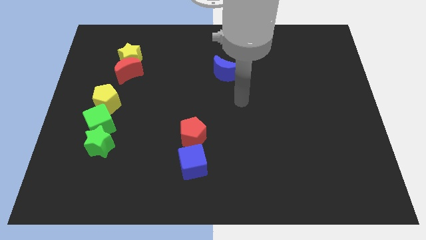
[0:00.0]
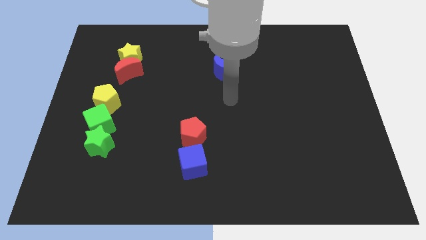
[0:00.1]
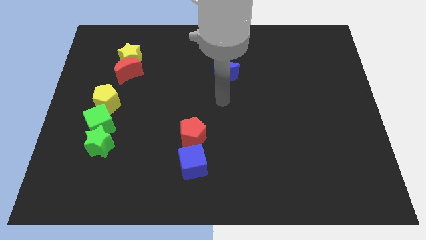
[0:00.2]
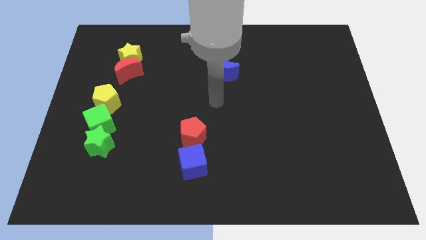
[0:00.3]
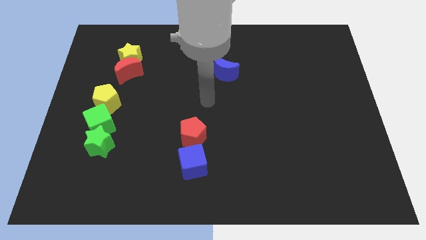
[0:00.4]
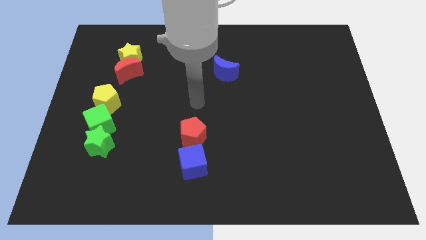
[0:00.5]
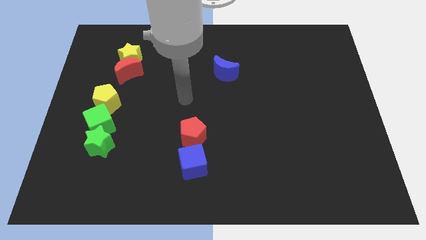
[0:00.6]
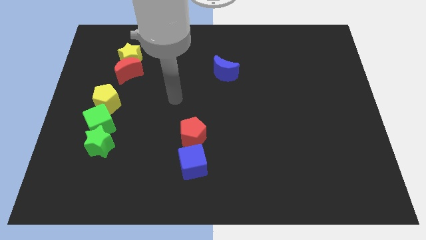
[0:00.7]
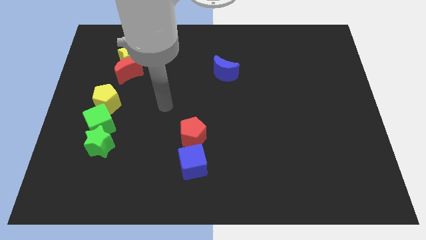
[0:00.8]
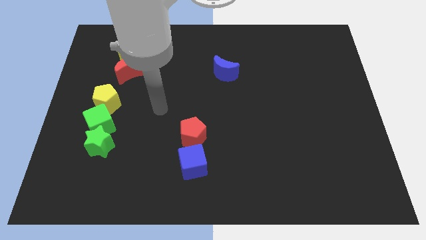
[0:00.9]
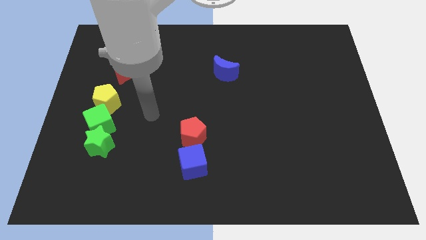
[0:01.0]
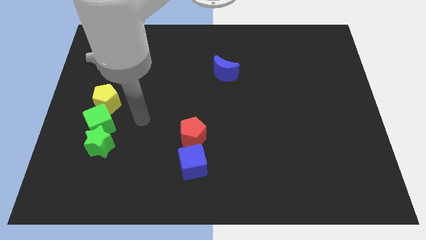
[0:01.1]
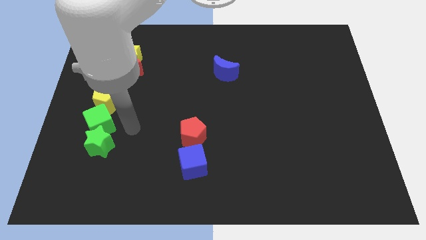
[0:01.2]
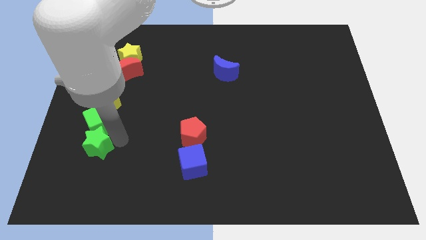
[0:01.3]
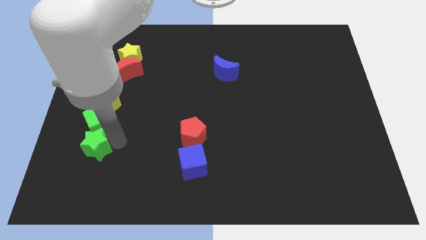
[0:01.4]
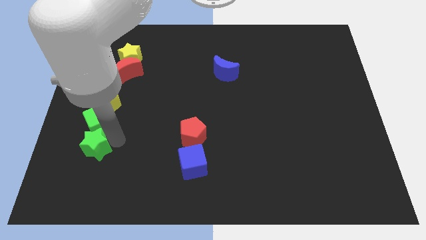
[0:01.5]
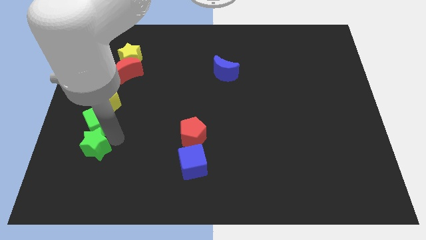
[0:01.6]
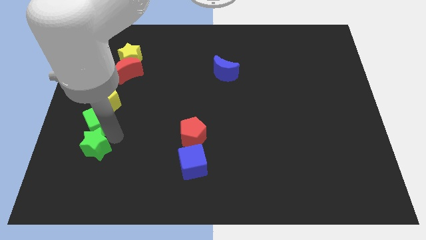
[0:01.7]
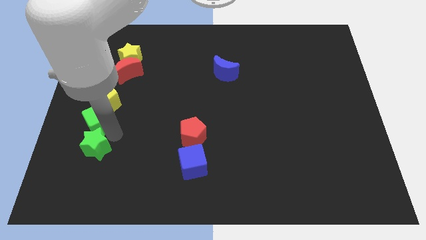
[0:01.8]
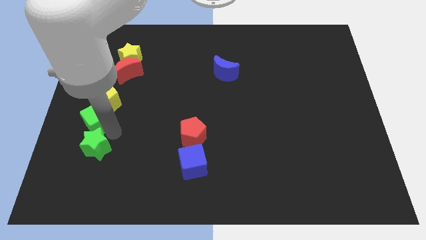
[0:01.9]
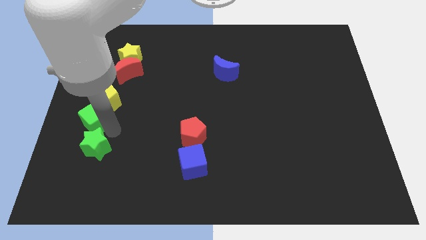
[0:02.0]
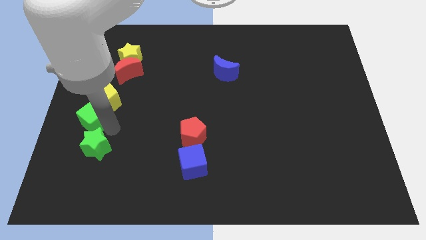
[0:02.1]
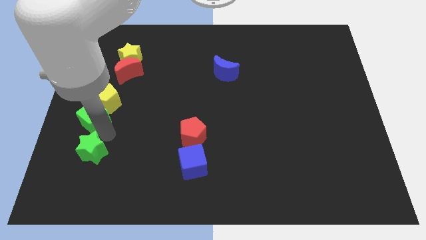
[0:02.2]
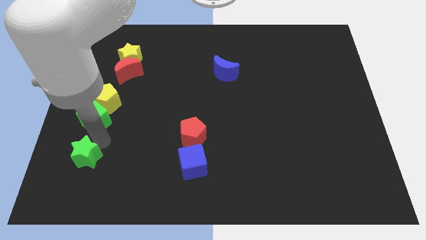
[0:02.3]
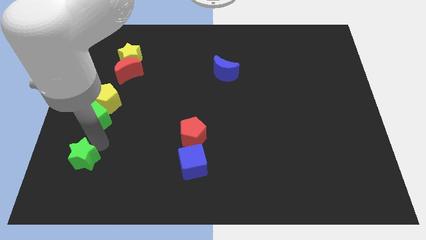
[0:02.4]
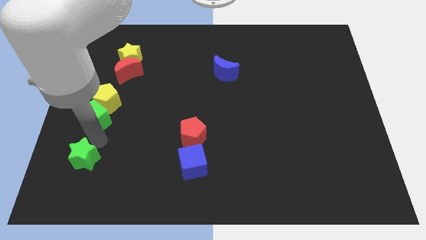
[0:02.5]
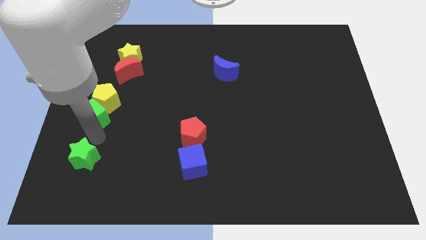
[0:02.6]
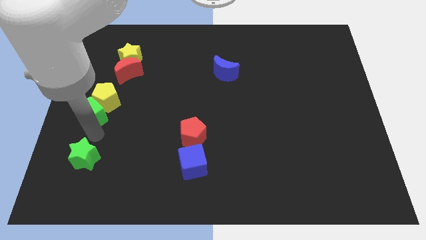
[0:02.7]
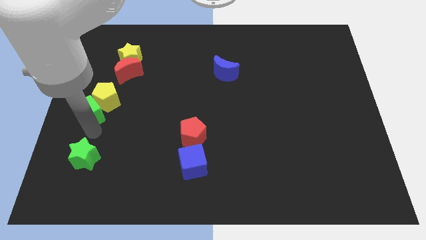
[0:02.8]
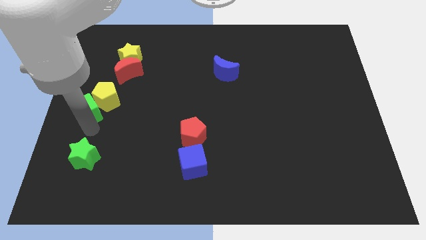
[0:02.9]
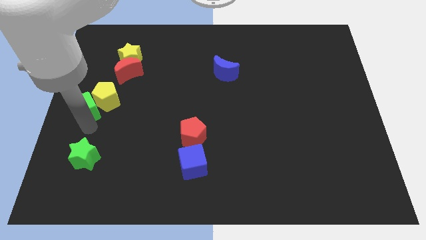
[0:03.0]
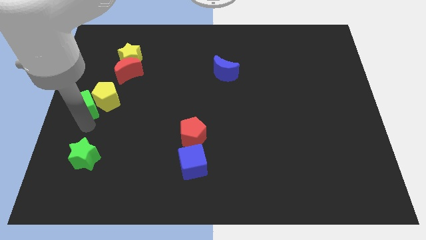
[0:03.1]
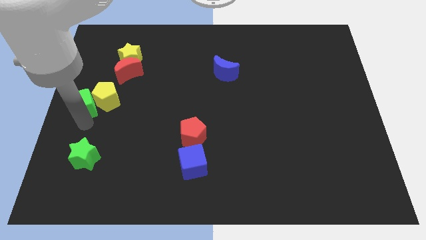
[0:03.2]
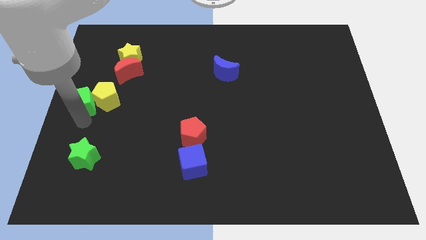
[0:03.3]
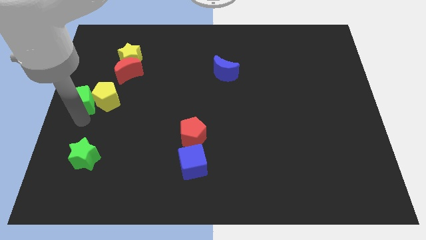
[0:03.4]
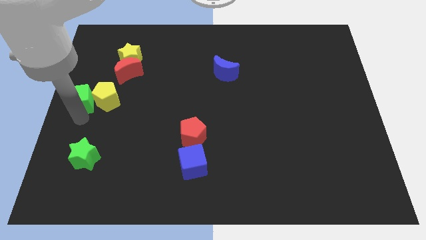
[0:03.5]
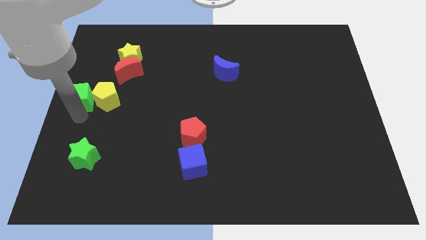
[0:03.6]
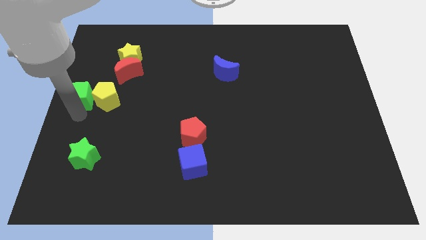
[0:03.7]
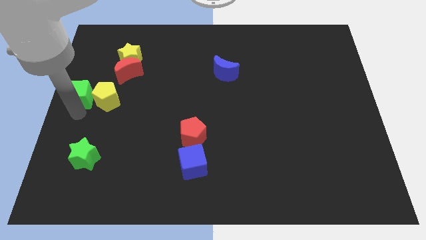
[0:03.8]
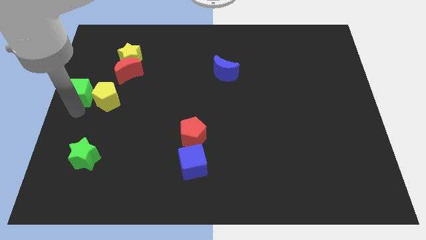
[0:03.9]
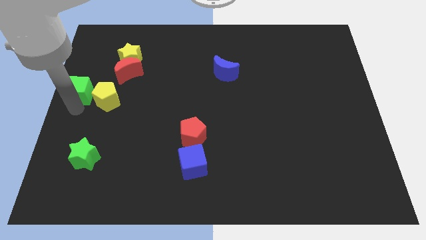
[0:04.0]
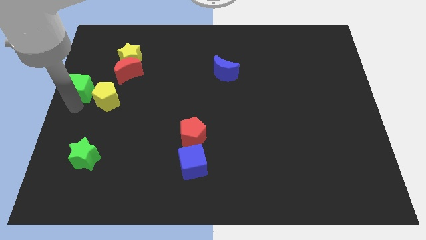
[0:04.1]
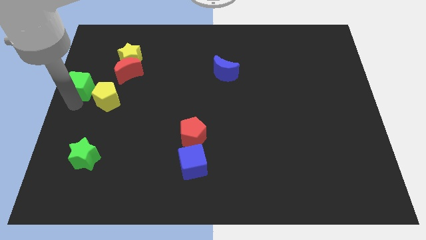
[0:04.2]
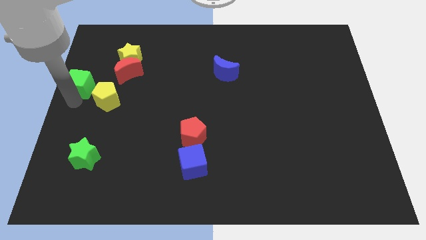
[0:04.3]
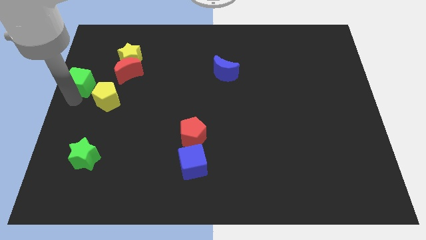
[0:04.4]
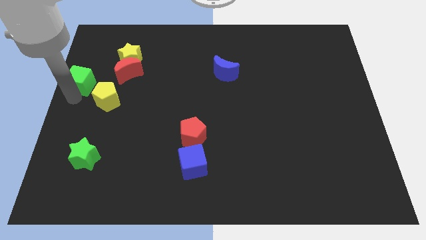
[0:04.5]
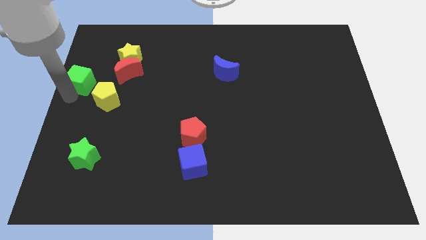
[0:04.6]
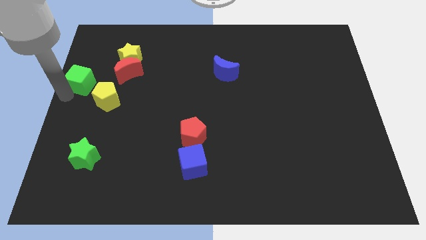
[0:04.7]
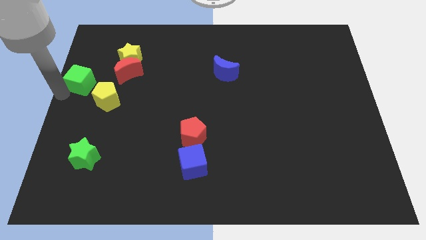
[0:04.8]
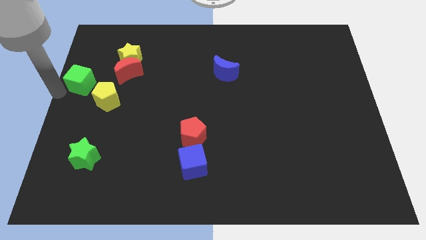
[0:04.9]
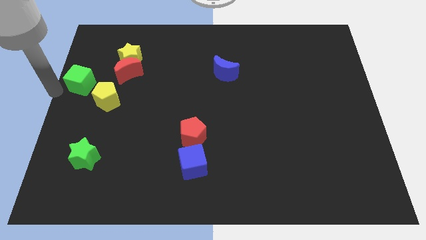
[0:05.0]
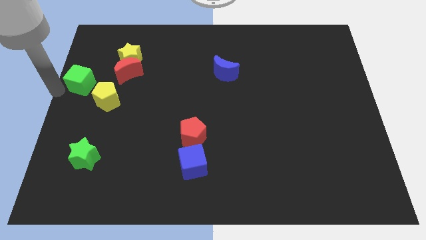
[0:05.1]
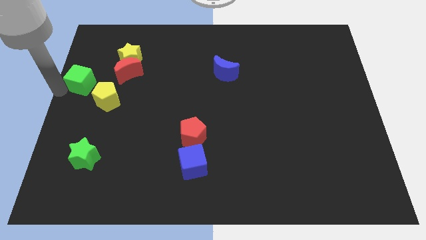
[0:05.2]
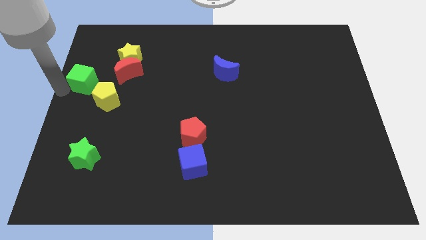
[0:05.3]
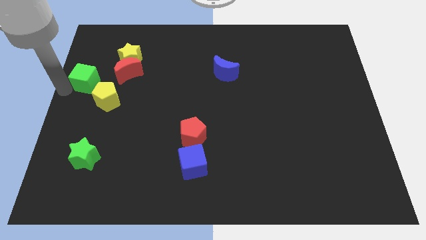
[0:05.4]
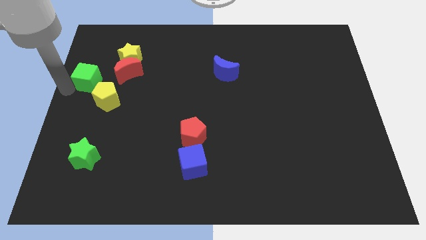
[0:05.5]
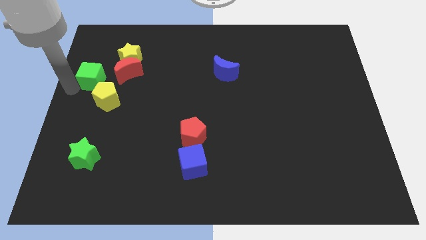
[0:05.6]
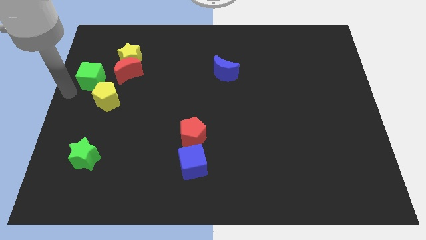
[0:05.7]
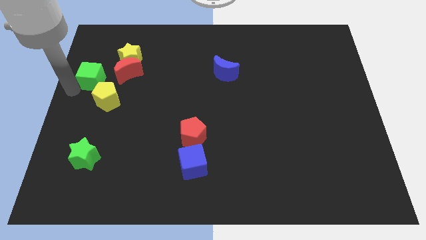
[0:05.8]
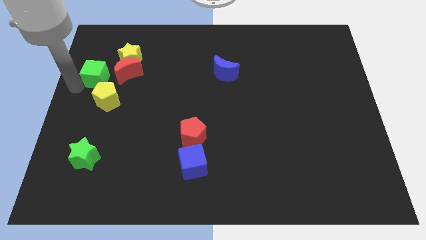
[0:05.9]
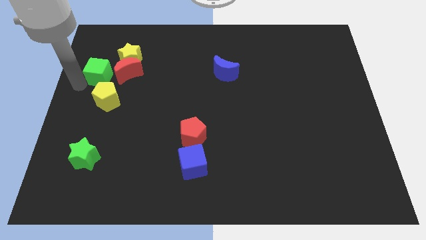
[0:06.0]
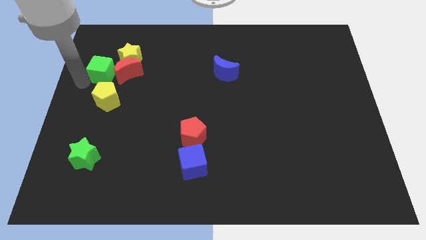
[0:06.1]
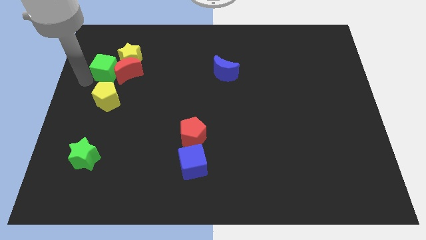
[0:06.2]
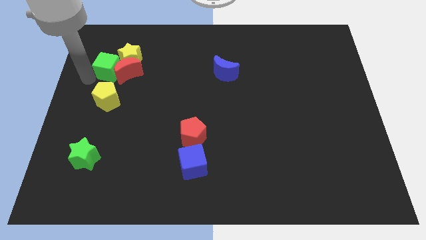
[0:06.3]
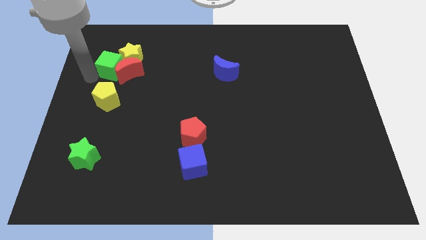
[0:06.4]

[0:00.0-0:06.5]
push the green cube towards the yellow star

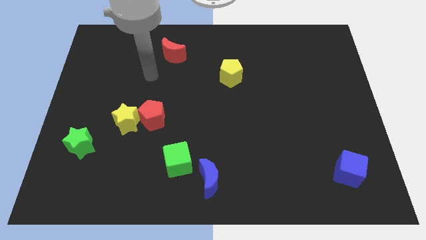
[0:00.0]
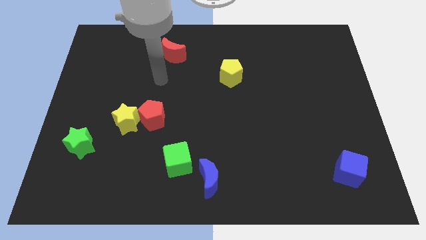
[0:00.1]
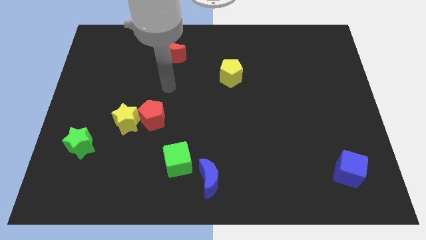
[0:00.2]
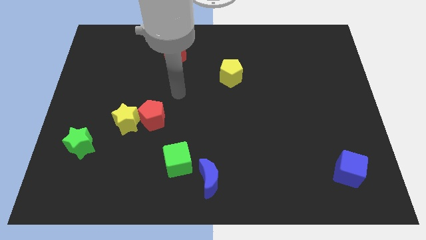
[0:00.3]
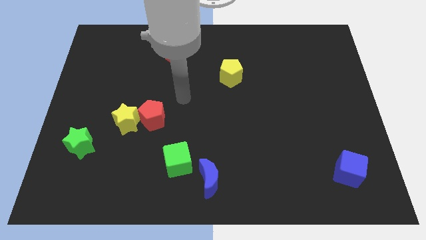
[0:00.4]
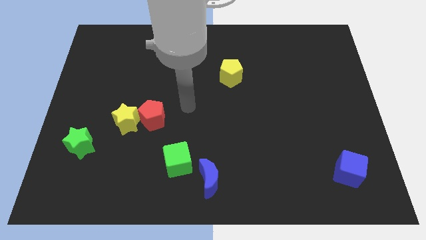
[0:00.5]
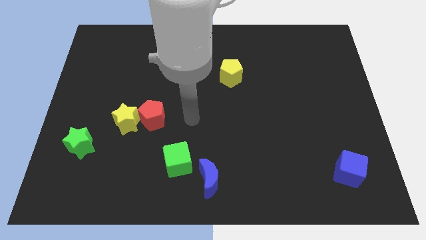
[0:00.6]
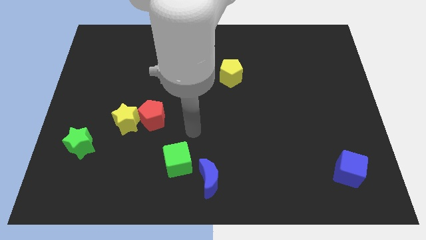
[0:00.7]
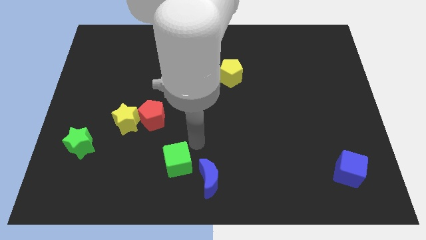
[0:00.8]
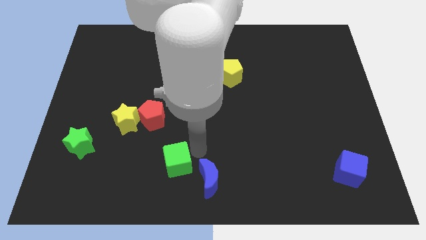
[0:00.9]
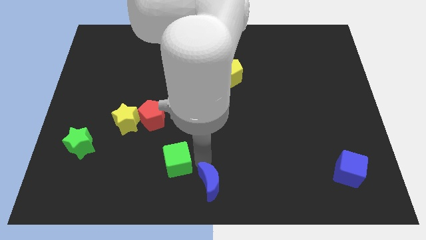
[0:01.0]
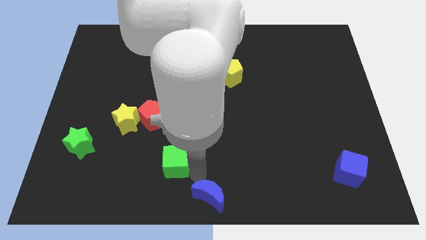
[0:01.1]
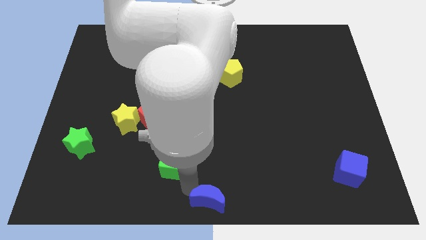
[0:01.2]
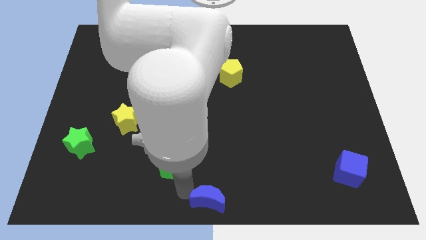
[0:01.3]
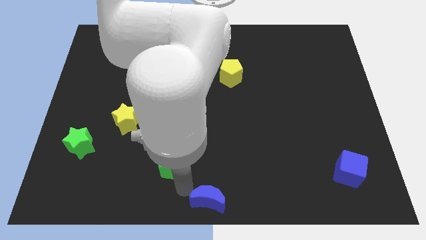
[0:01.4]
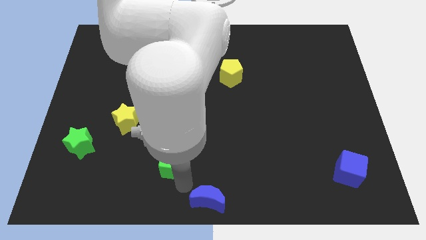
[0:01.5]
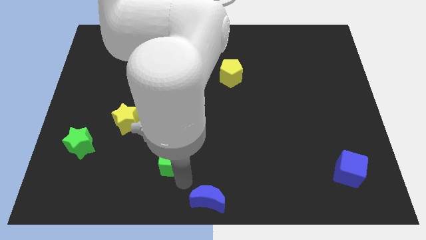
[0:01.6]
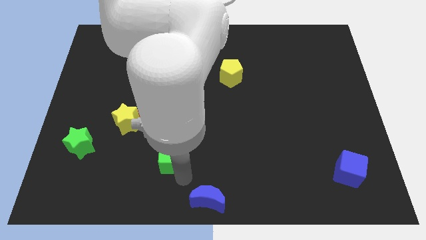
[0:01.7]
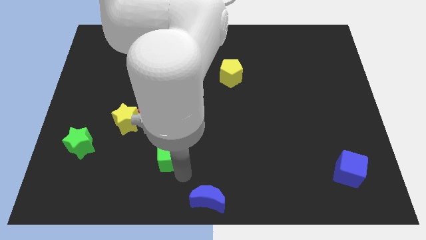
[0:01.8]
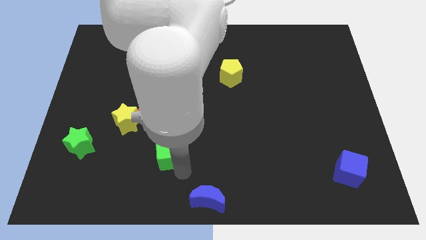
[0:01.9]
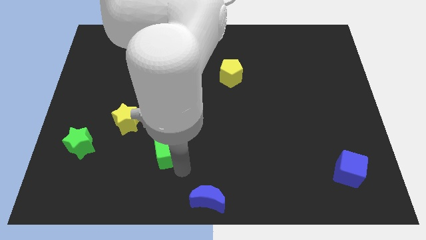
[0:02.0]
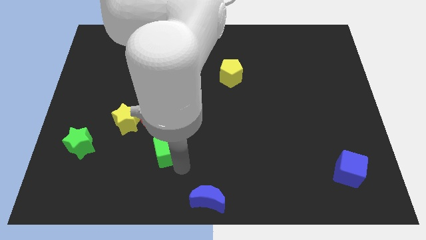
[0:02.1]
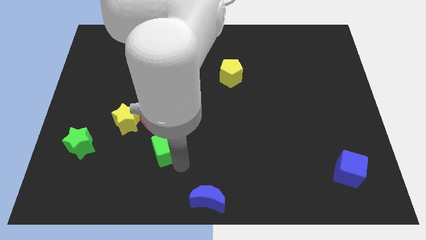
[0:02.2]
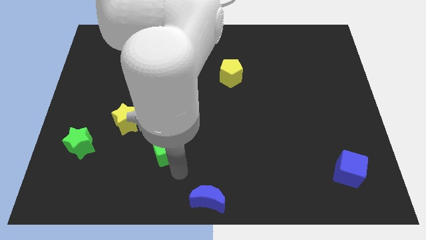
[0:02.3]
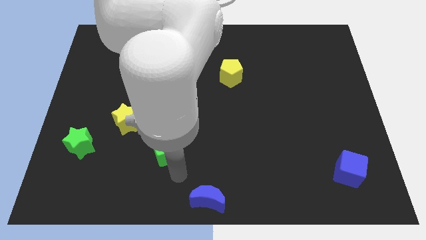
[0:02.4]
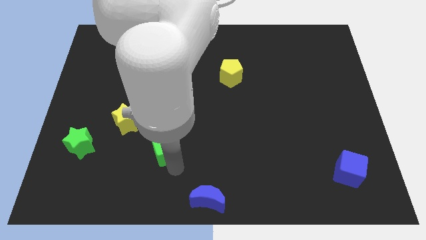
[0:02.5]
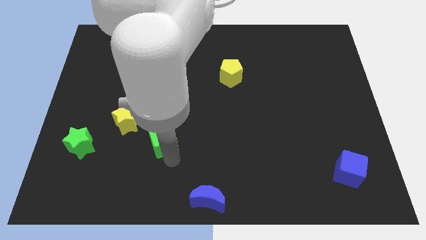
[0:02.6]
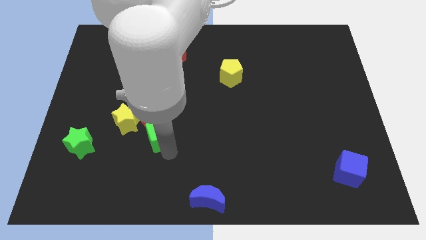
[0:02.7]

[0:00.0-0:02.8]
move the green cube to the red pentagon
